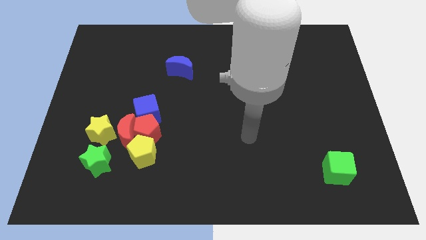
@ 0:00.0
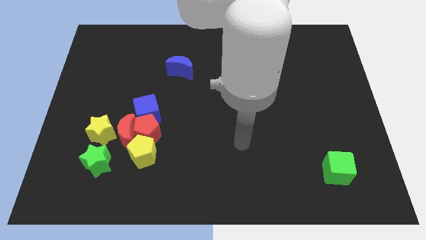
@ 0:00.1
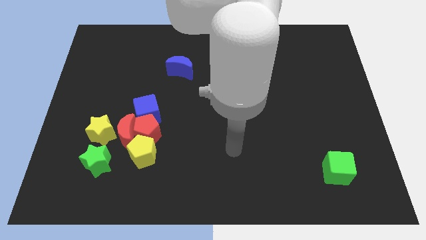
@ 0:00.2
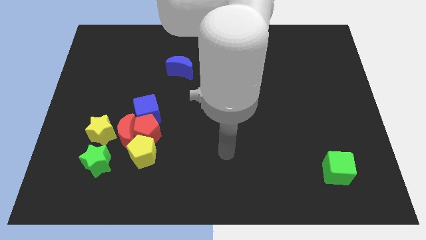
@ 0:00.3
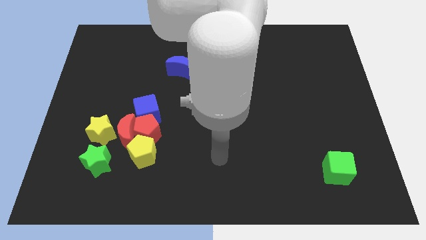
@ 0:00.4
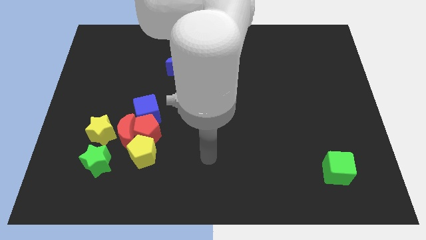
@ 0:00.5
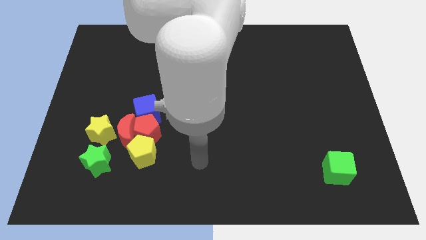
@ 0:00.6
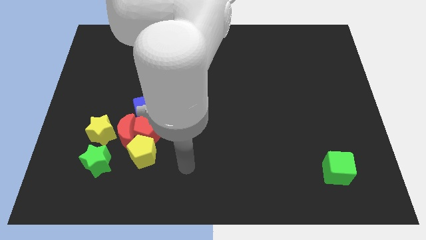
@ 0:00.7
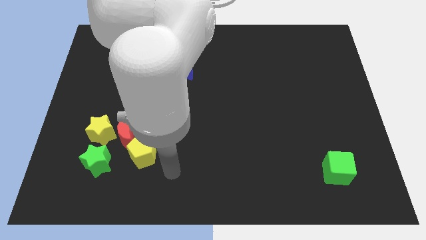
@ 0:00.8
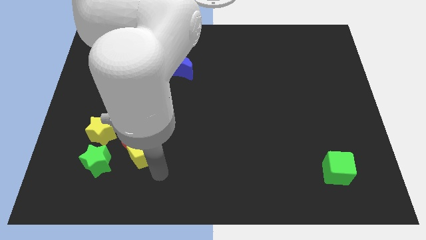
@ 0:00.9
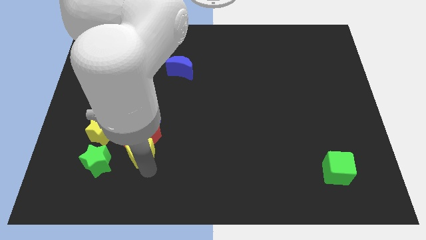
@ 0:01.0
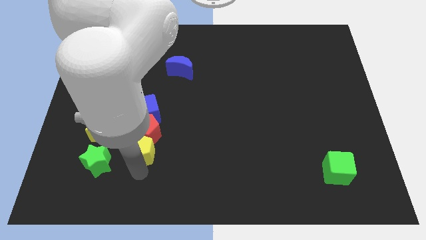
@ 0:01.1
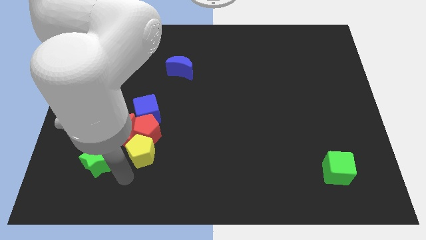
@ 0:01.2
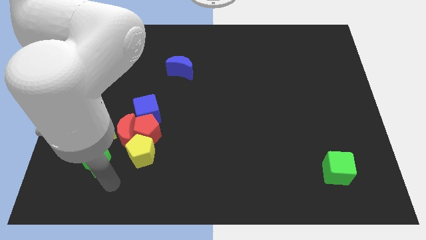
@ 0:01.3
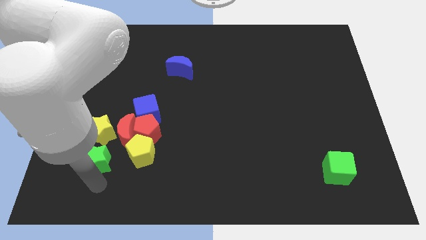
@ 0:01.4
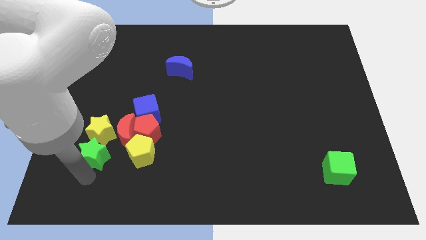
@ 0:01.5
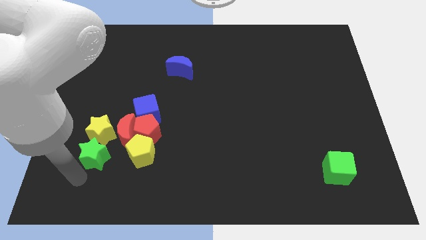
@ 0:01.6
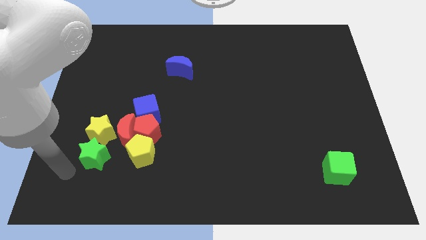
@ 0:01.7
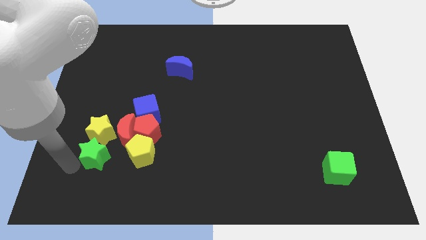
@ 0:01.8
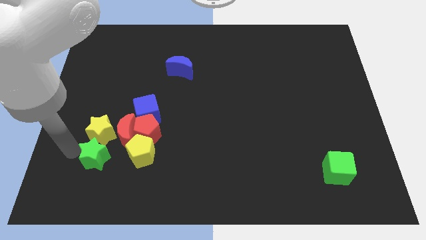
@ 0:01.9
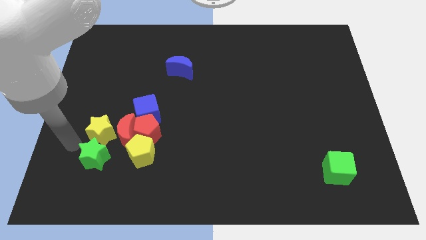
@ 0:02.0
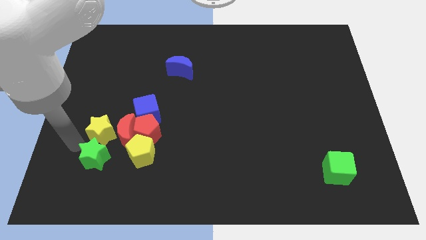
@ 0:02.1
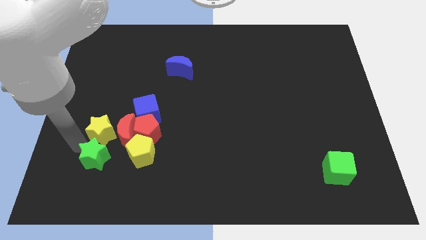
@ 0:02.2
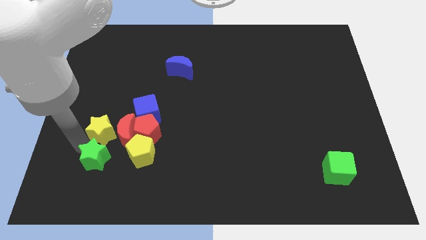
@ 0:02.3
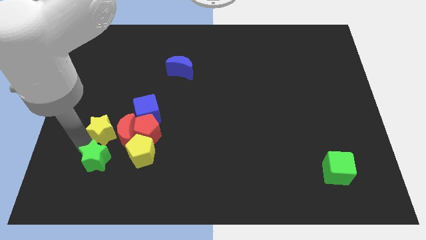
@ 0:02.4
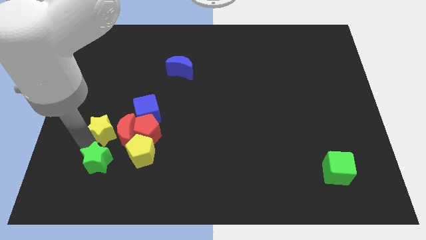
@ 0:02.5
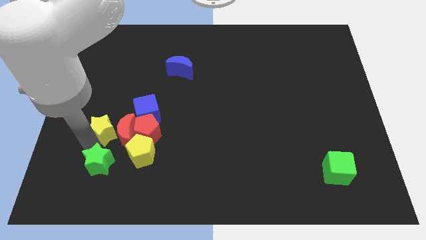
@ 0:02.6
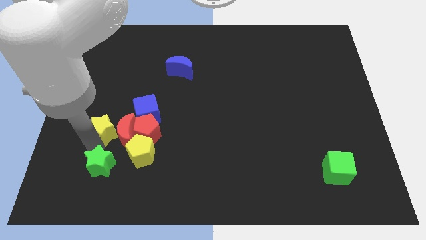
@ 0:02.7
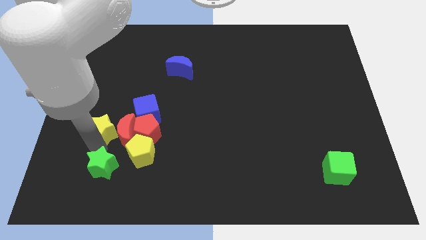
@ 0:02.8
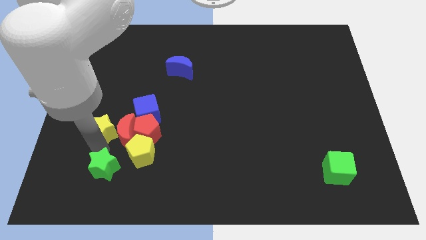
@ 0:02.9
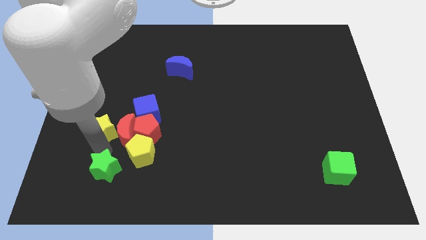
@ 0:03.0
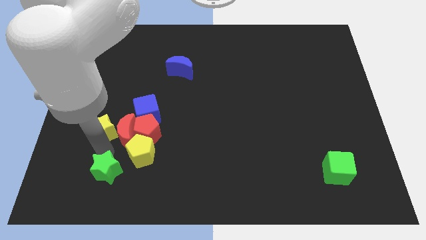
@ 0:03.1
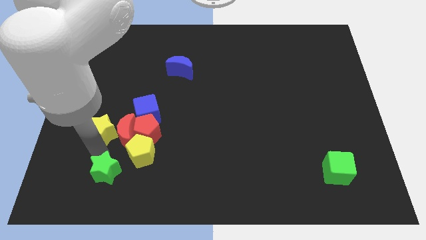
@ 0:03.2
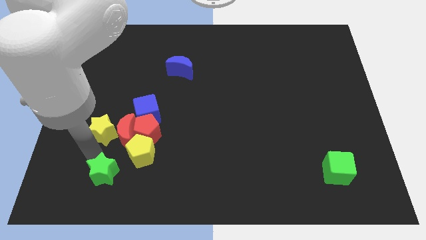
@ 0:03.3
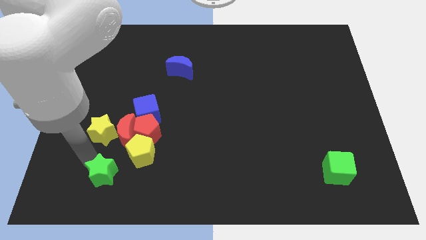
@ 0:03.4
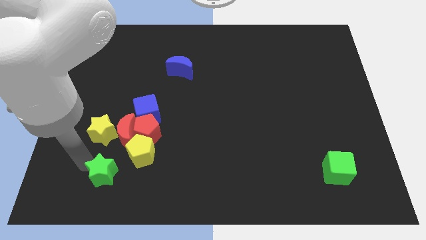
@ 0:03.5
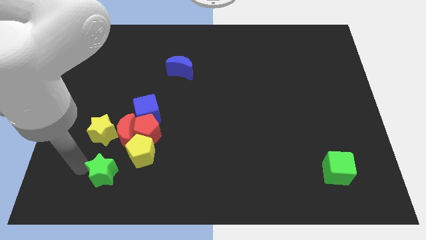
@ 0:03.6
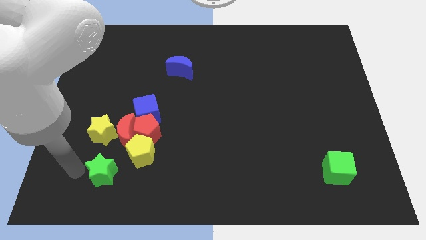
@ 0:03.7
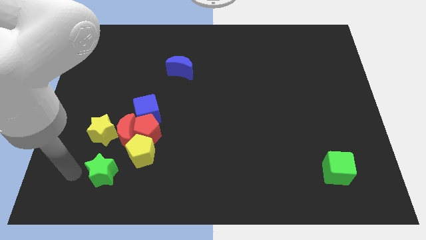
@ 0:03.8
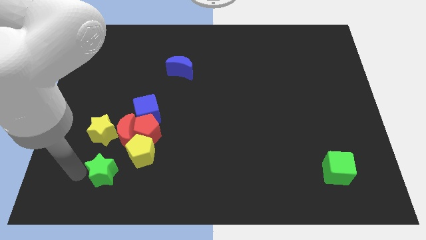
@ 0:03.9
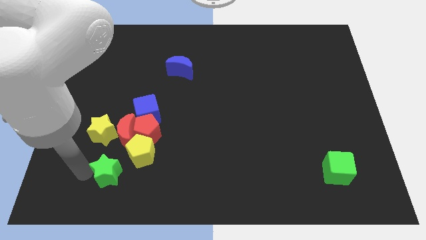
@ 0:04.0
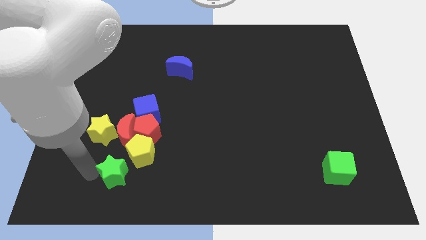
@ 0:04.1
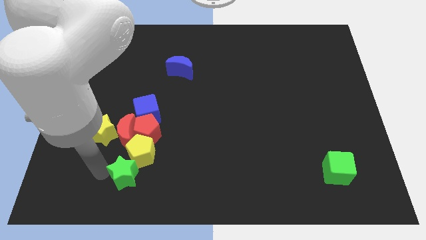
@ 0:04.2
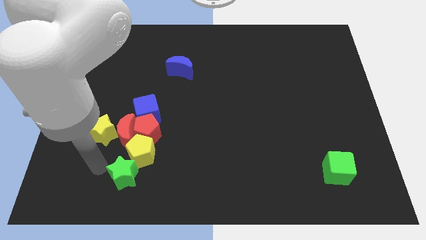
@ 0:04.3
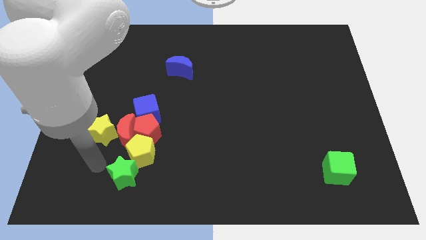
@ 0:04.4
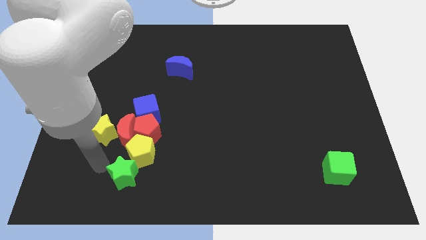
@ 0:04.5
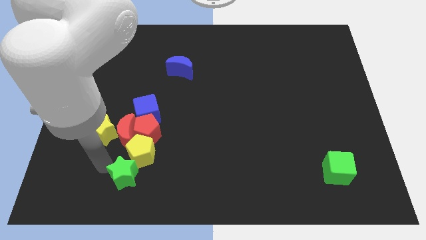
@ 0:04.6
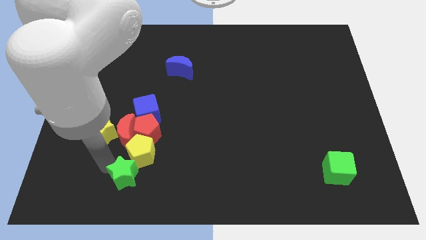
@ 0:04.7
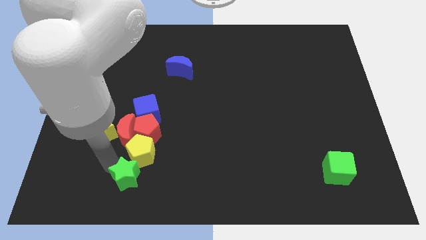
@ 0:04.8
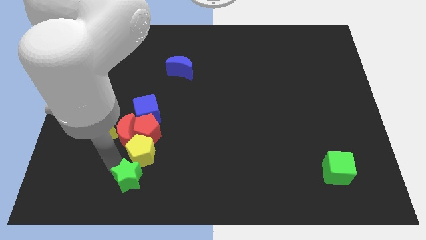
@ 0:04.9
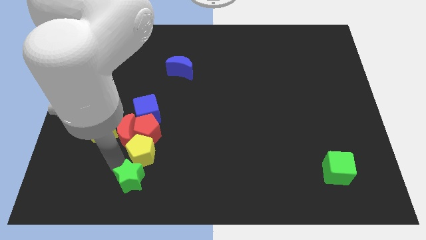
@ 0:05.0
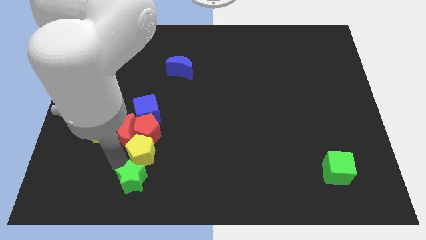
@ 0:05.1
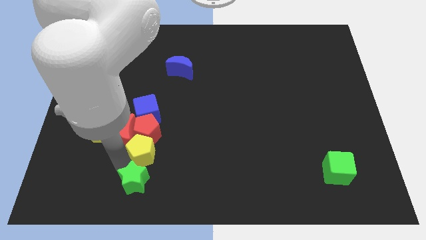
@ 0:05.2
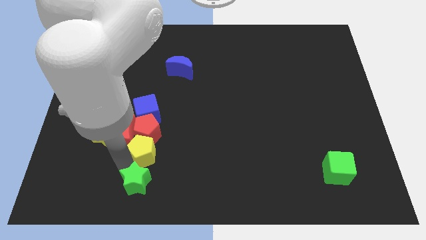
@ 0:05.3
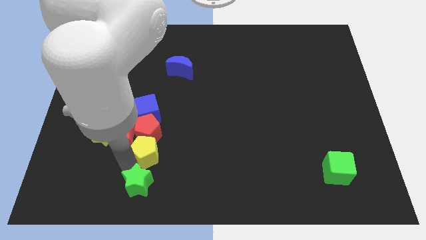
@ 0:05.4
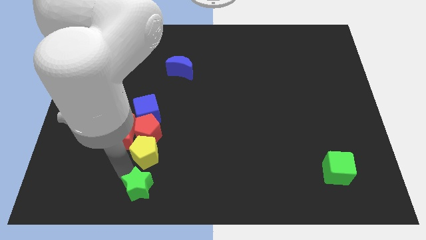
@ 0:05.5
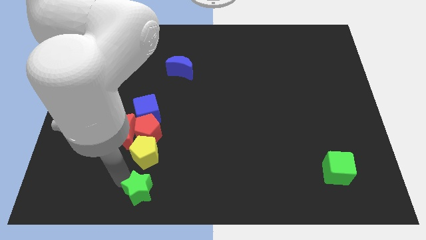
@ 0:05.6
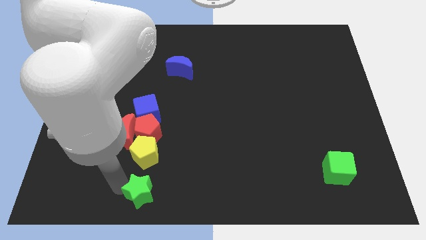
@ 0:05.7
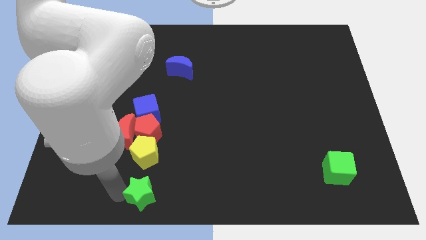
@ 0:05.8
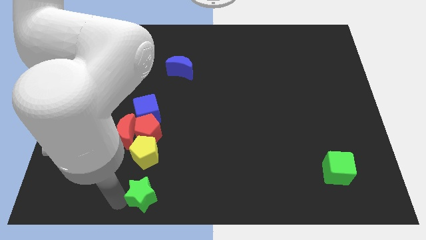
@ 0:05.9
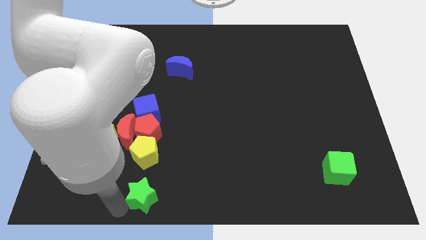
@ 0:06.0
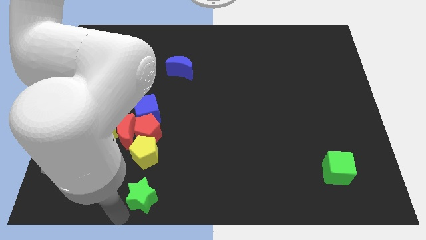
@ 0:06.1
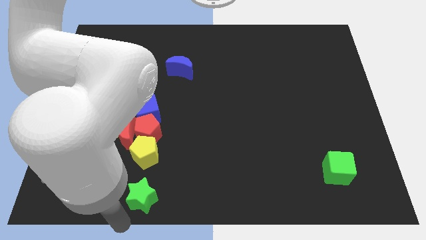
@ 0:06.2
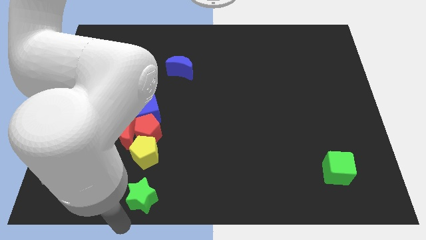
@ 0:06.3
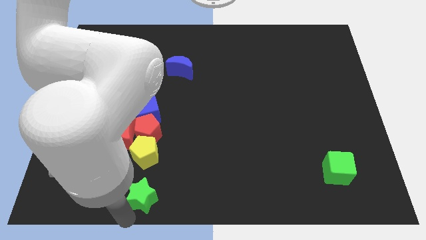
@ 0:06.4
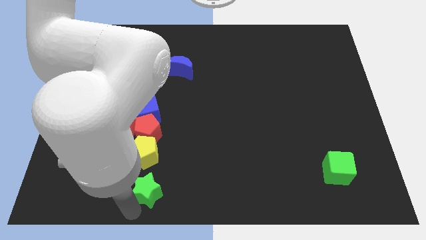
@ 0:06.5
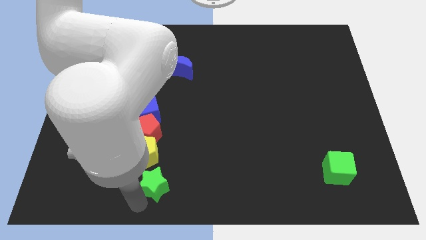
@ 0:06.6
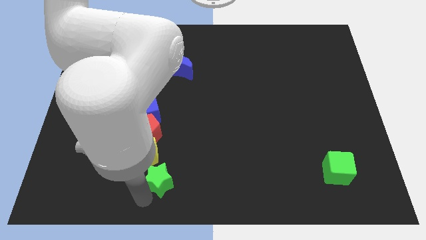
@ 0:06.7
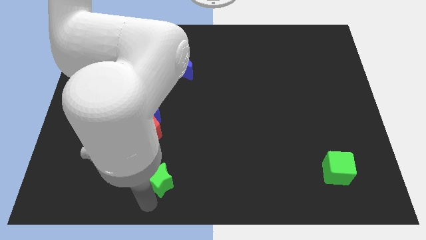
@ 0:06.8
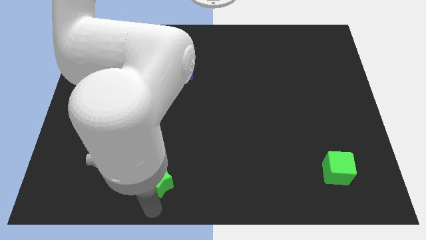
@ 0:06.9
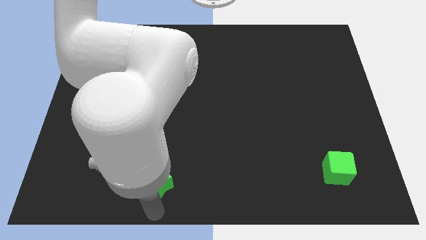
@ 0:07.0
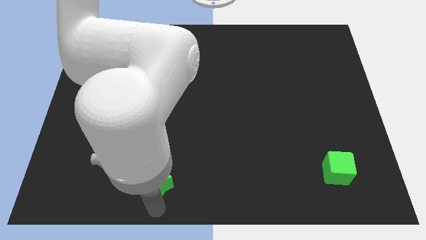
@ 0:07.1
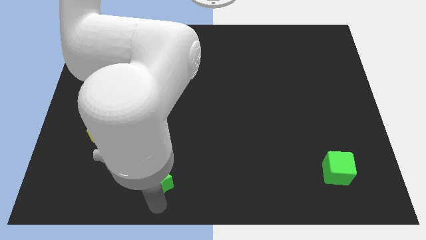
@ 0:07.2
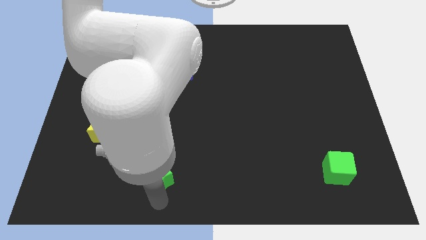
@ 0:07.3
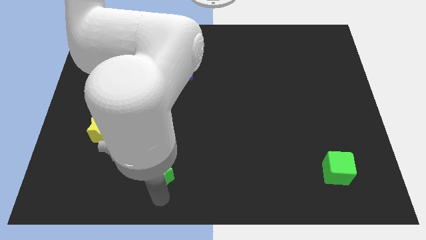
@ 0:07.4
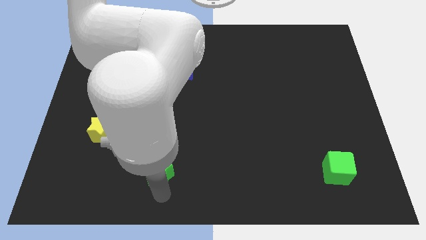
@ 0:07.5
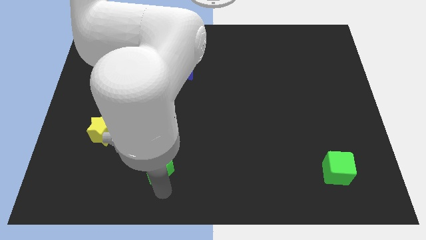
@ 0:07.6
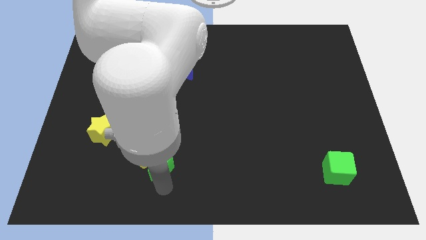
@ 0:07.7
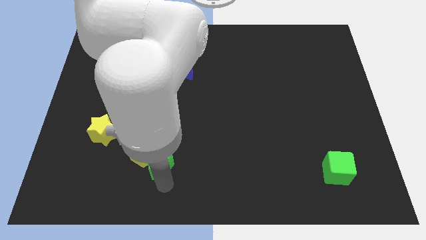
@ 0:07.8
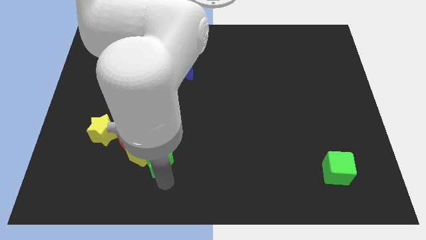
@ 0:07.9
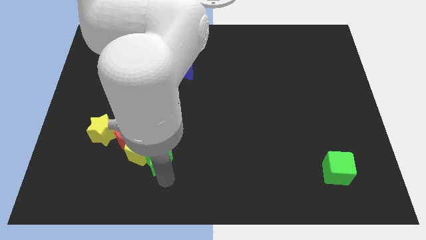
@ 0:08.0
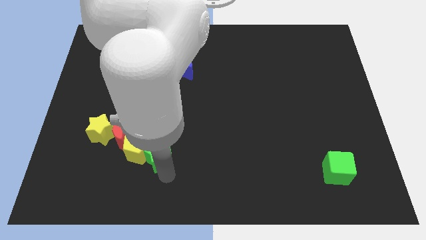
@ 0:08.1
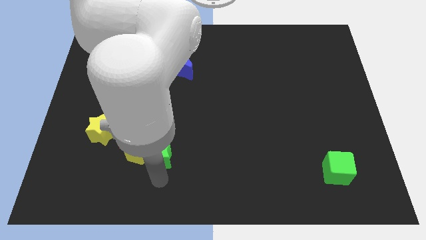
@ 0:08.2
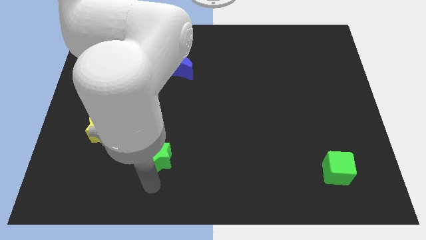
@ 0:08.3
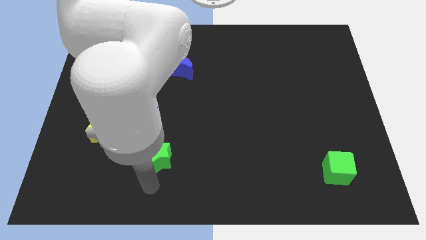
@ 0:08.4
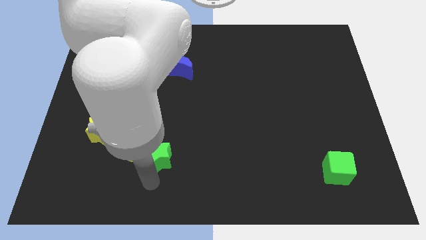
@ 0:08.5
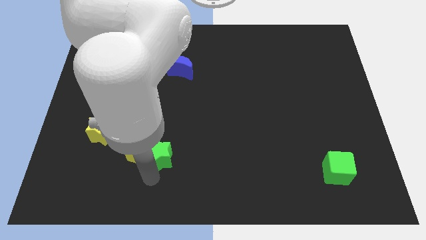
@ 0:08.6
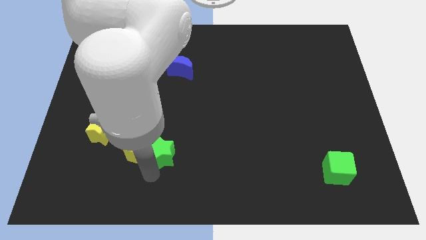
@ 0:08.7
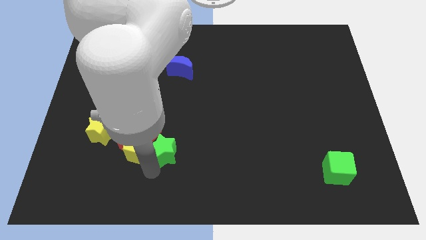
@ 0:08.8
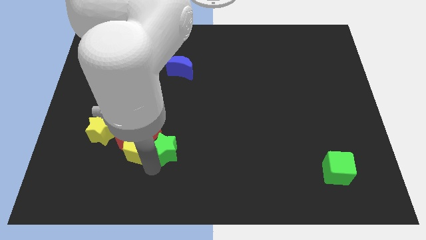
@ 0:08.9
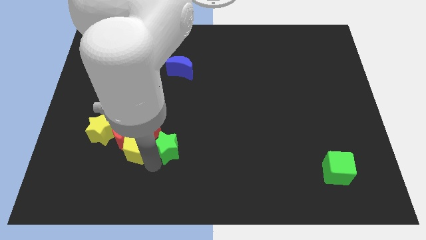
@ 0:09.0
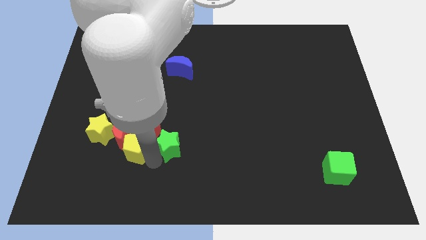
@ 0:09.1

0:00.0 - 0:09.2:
push the green star diagonally down and to the right of the blue cube
